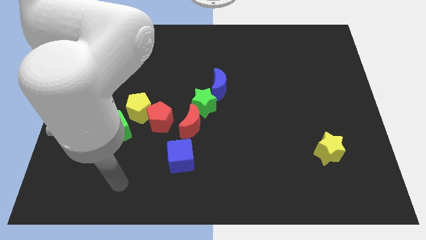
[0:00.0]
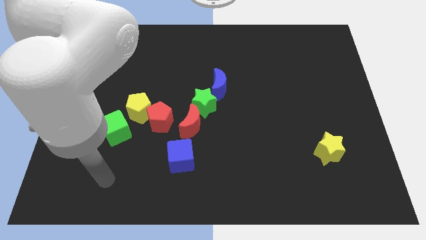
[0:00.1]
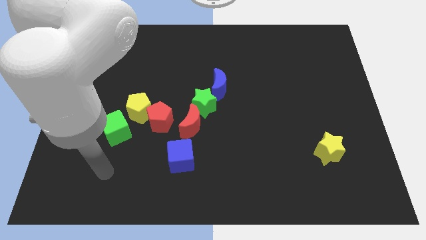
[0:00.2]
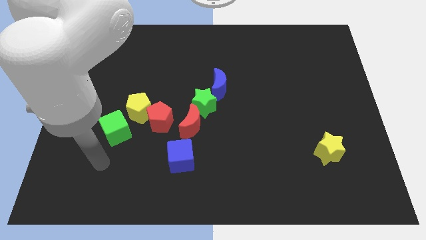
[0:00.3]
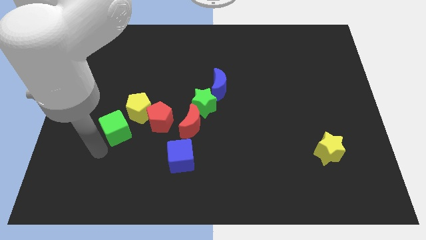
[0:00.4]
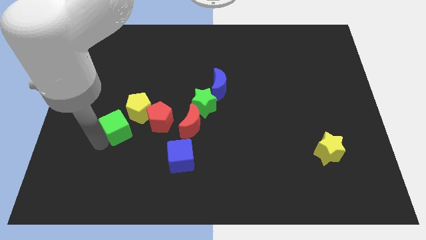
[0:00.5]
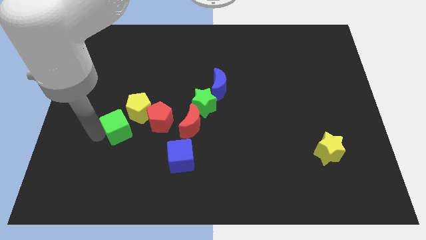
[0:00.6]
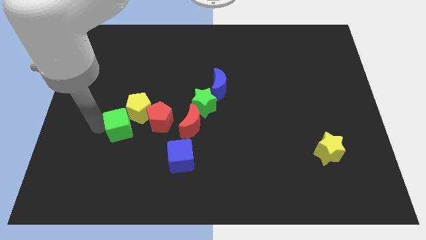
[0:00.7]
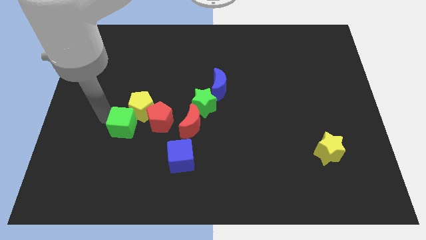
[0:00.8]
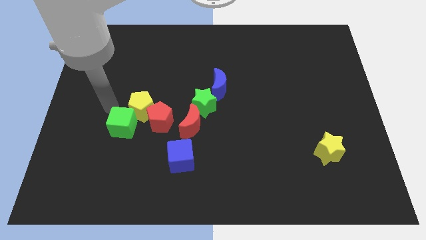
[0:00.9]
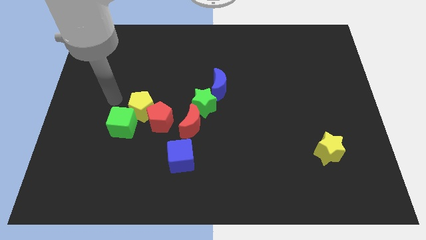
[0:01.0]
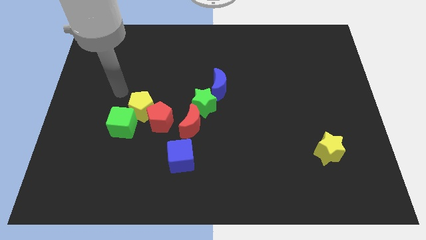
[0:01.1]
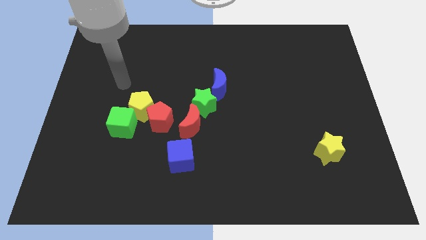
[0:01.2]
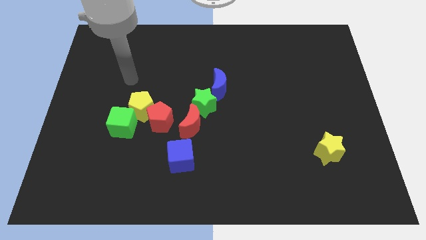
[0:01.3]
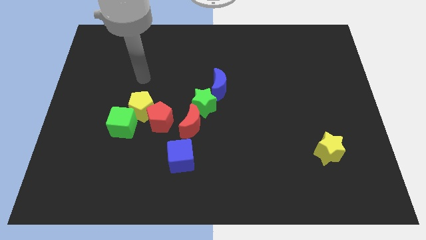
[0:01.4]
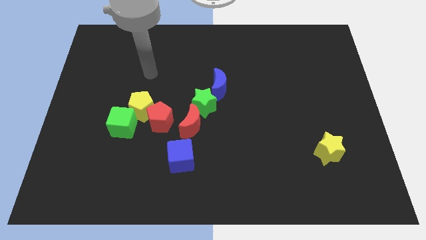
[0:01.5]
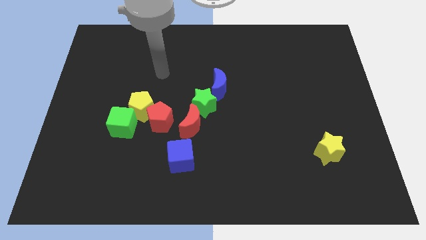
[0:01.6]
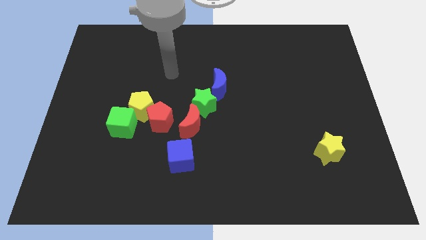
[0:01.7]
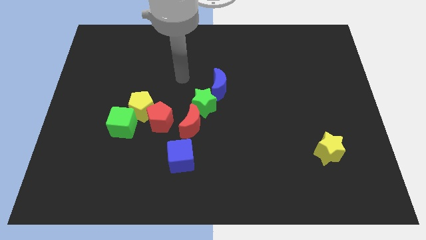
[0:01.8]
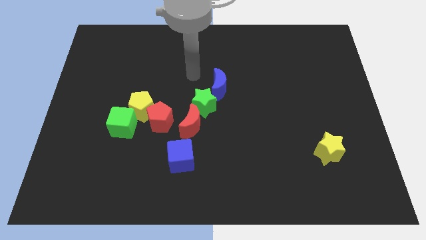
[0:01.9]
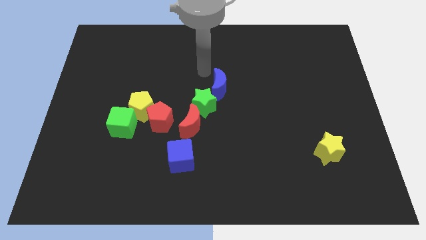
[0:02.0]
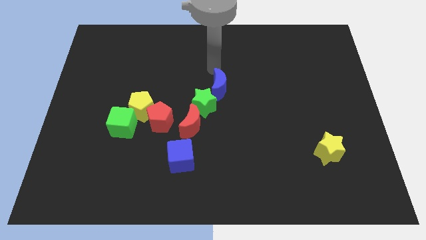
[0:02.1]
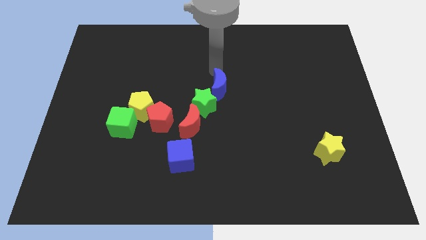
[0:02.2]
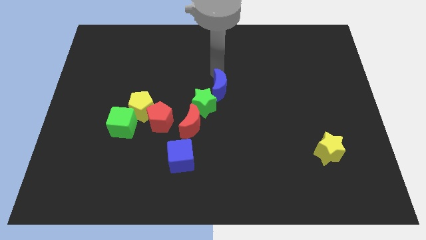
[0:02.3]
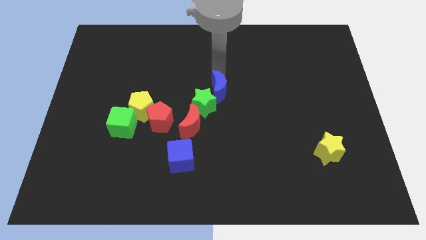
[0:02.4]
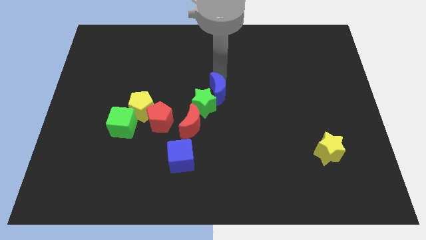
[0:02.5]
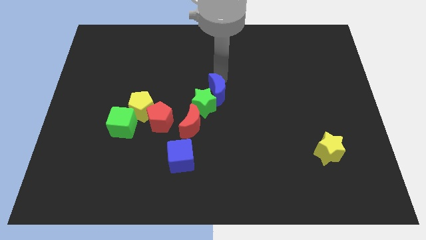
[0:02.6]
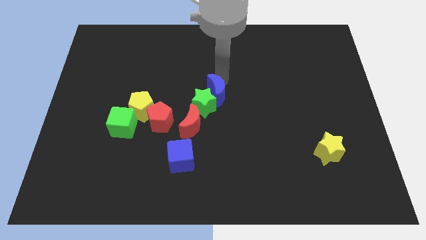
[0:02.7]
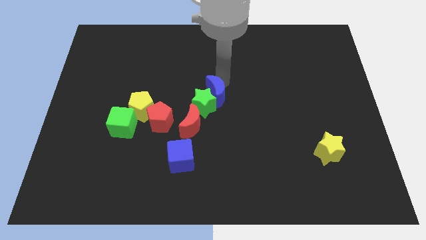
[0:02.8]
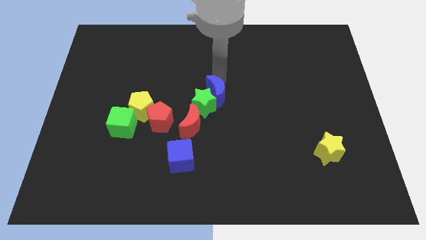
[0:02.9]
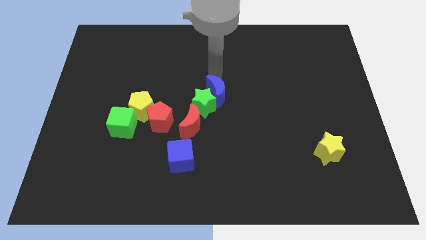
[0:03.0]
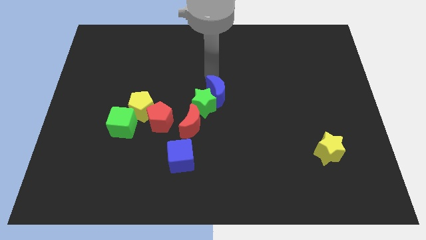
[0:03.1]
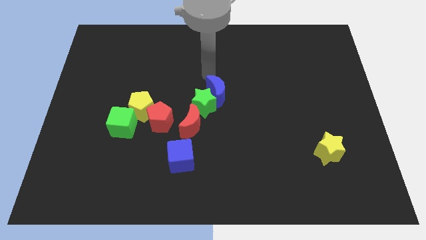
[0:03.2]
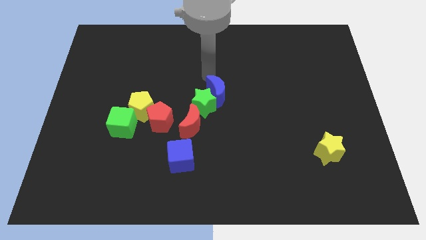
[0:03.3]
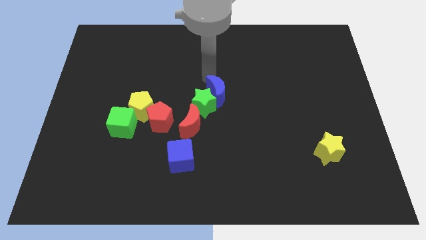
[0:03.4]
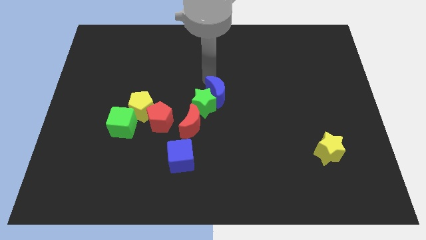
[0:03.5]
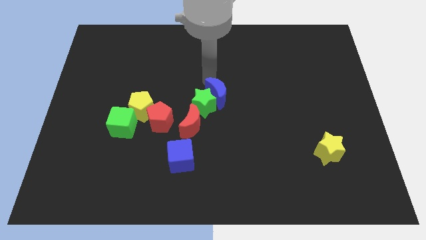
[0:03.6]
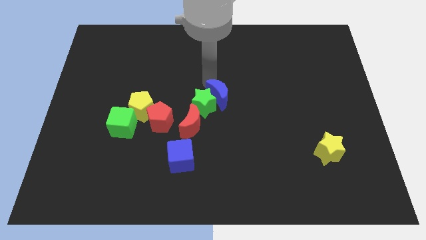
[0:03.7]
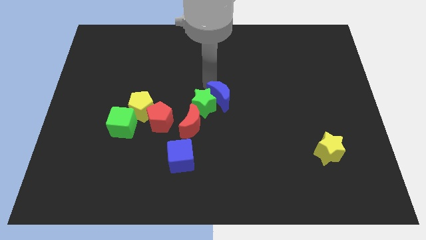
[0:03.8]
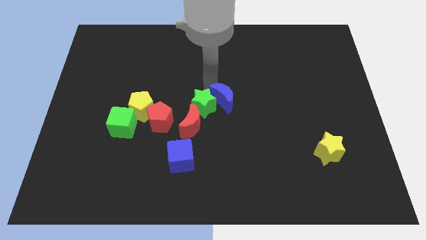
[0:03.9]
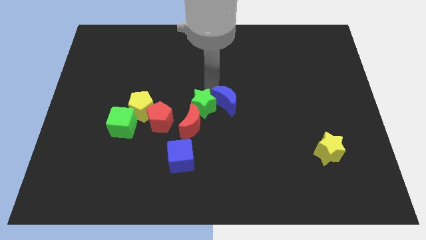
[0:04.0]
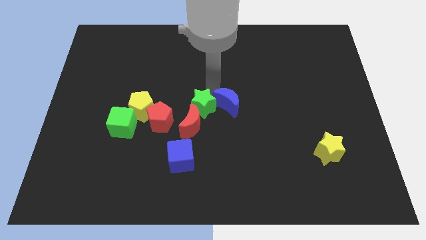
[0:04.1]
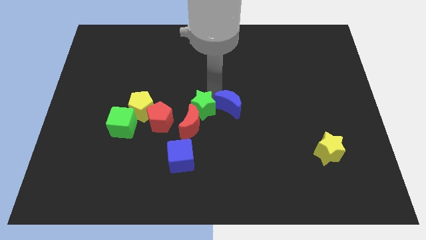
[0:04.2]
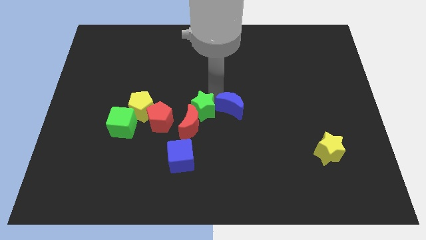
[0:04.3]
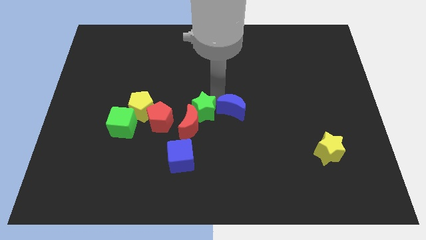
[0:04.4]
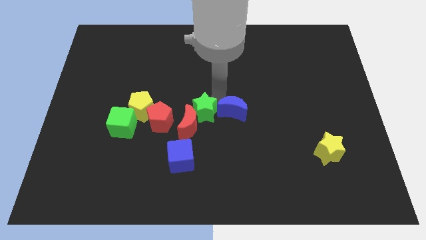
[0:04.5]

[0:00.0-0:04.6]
slightly move the blue moon downwards

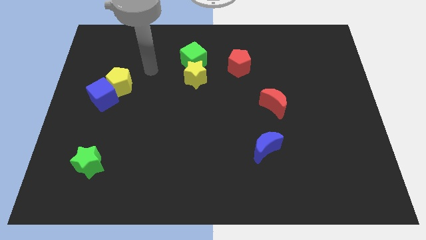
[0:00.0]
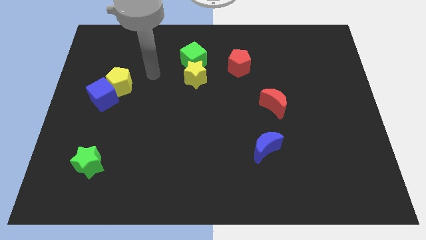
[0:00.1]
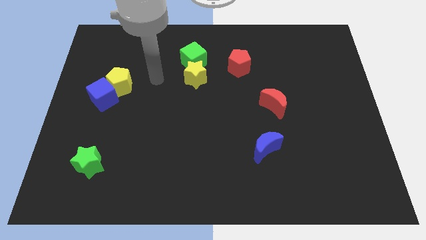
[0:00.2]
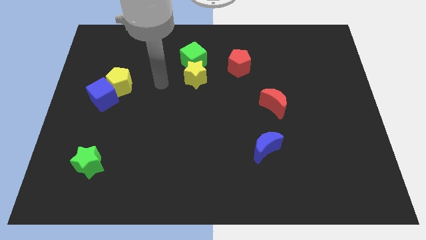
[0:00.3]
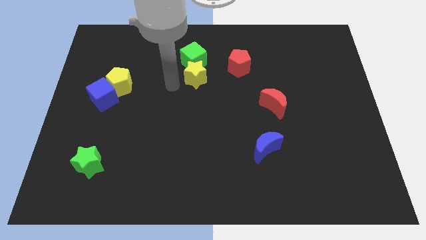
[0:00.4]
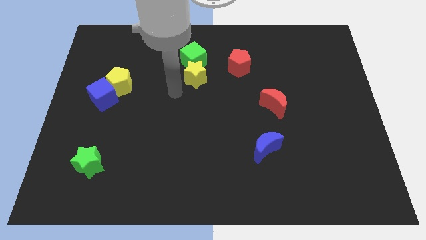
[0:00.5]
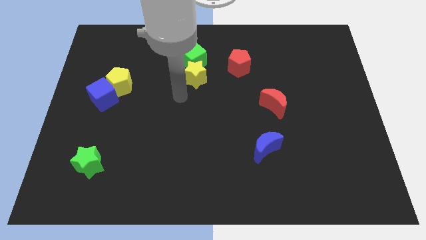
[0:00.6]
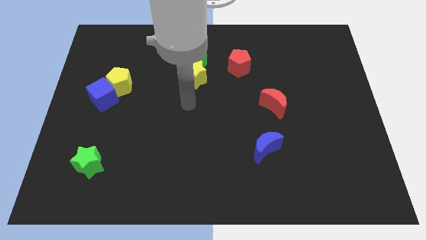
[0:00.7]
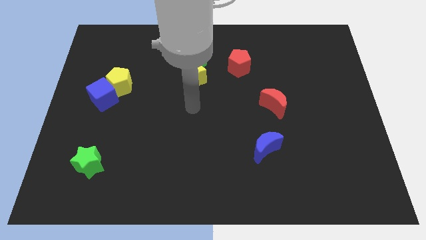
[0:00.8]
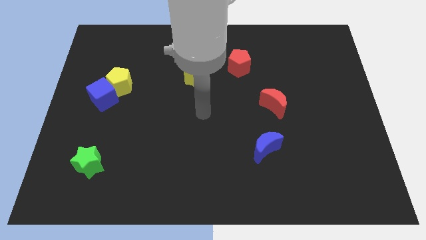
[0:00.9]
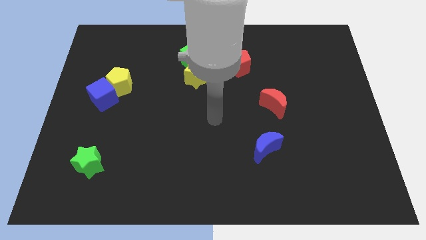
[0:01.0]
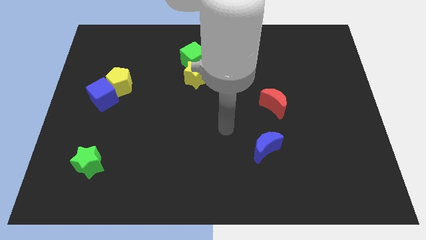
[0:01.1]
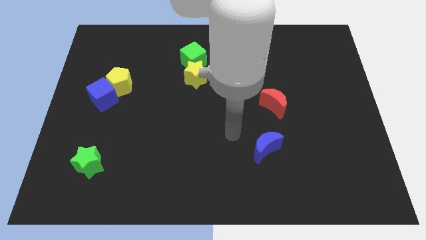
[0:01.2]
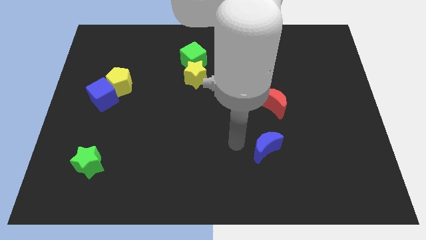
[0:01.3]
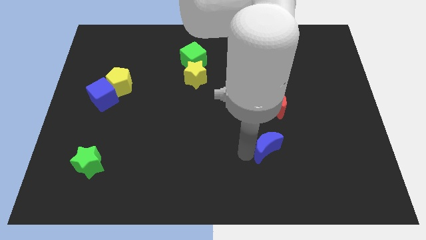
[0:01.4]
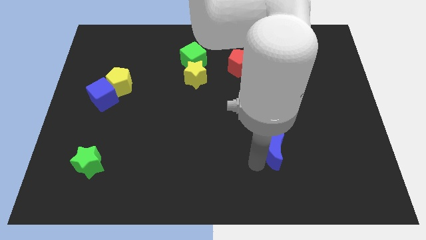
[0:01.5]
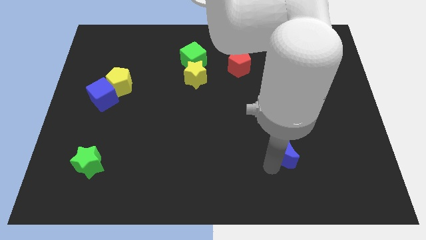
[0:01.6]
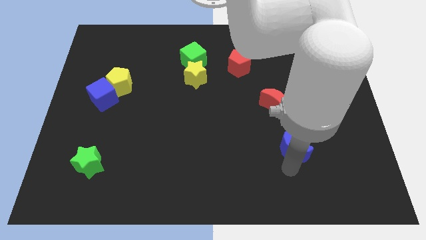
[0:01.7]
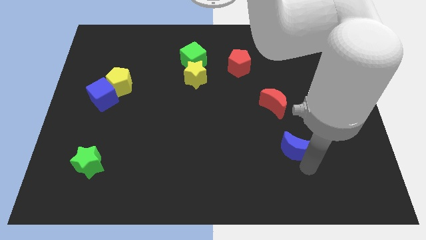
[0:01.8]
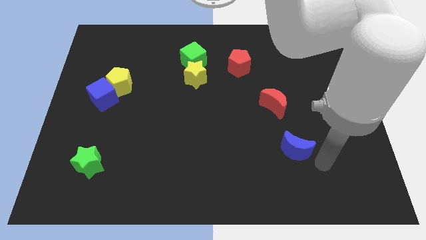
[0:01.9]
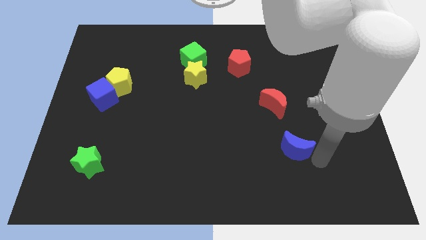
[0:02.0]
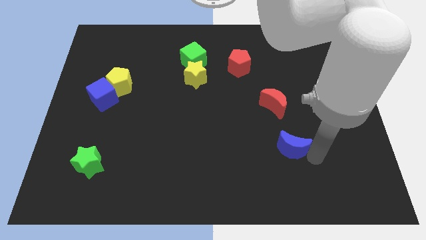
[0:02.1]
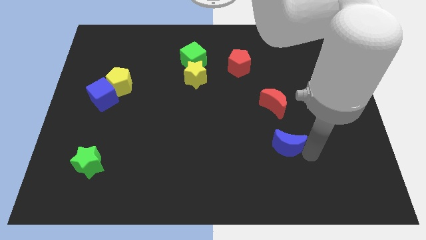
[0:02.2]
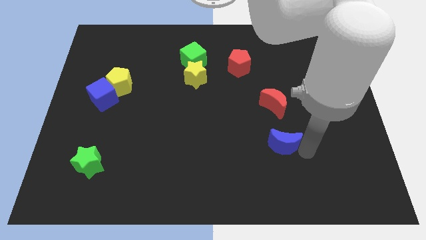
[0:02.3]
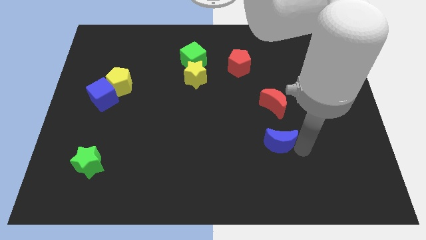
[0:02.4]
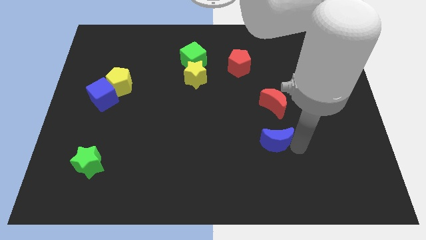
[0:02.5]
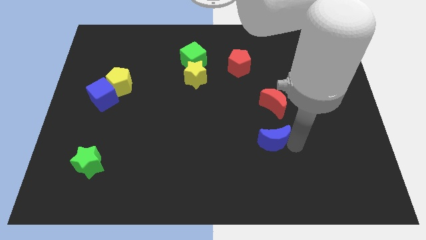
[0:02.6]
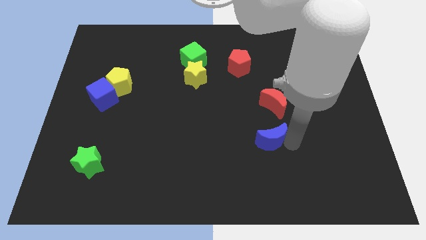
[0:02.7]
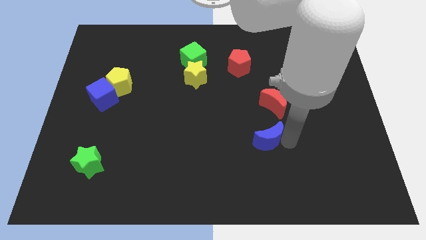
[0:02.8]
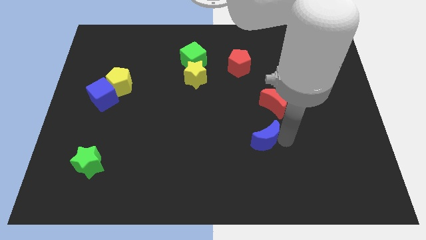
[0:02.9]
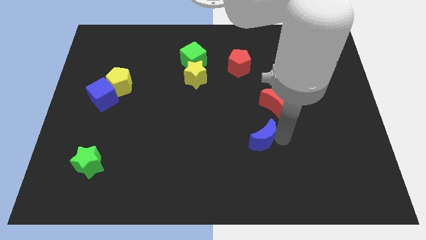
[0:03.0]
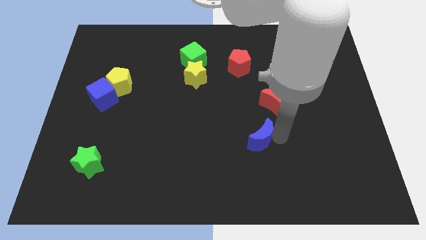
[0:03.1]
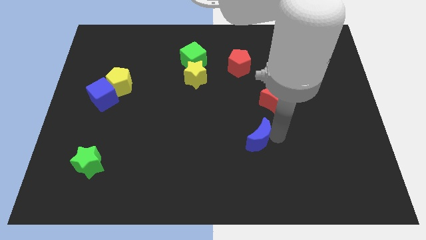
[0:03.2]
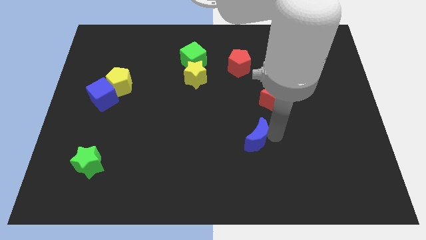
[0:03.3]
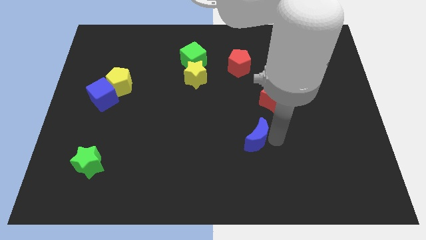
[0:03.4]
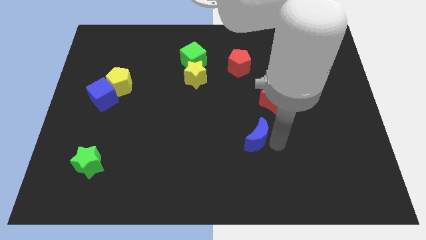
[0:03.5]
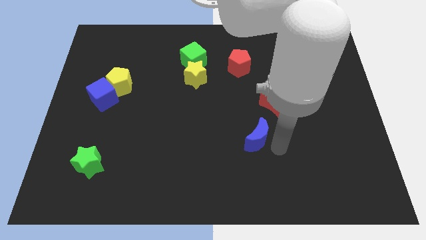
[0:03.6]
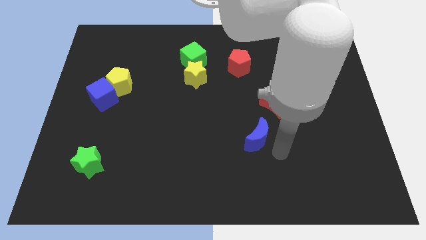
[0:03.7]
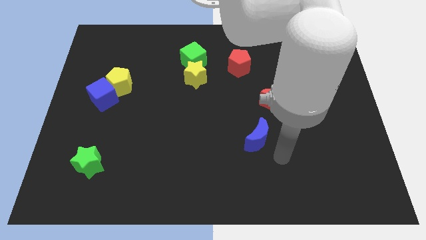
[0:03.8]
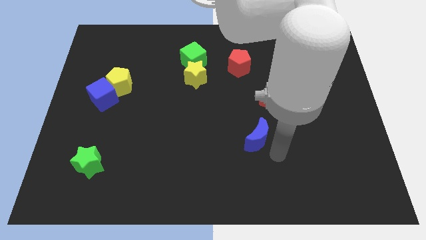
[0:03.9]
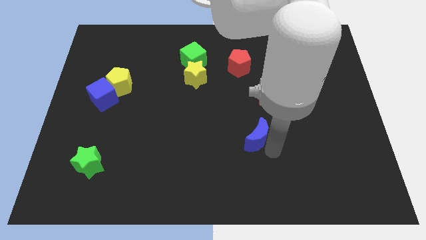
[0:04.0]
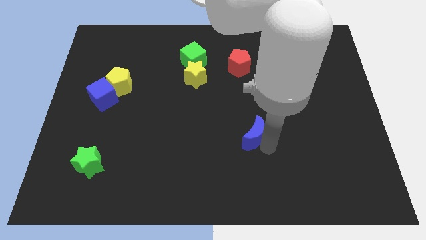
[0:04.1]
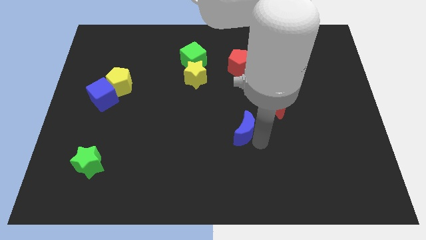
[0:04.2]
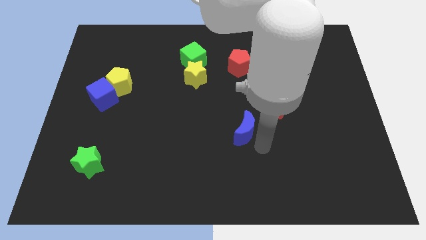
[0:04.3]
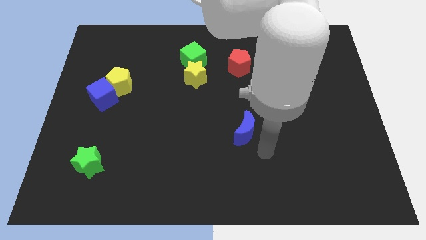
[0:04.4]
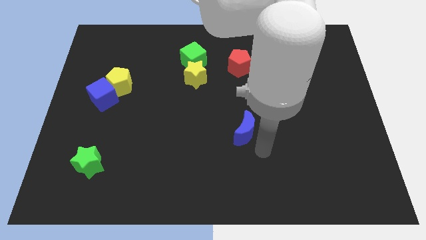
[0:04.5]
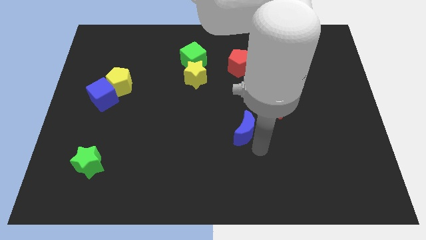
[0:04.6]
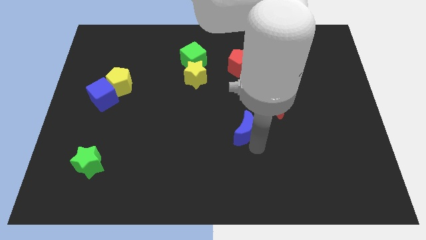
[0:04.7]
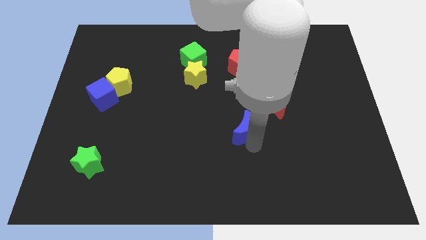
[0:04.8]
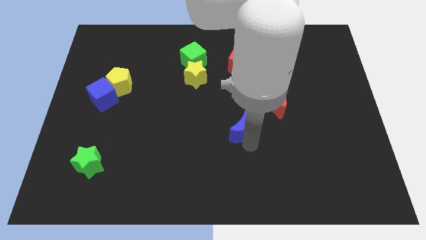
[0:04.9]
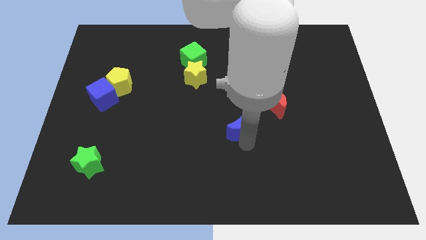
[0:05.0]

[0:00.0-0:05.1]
slide the blue moon diagonally up and left a little bit
